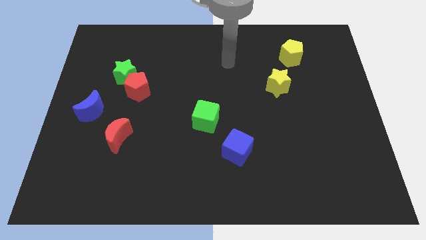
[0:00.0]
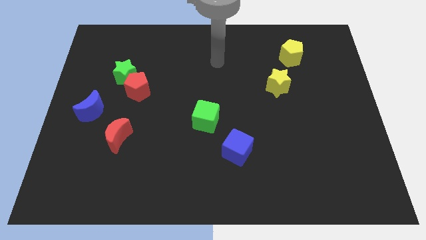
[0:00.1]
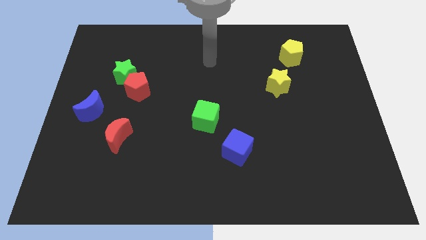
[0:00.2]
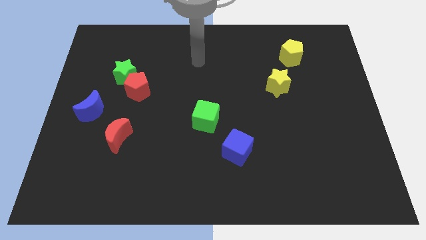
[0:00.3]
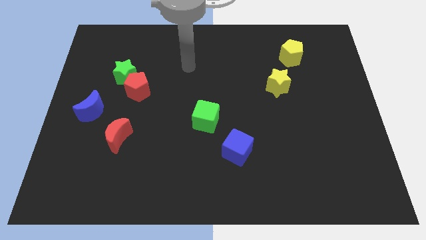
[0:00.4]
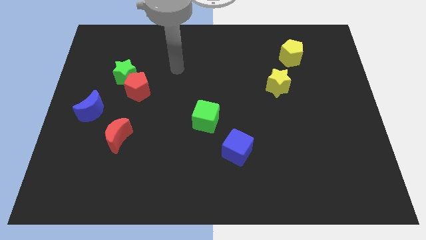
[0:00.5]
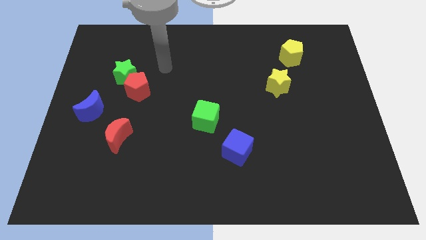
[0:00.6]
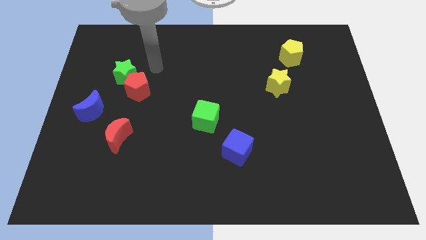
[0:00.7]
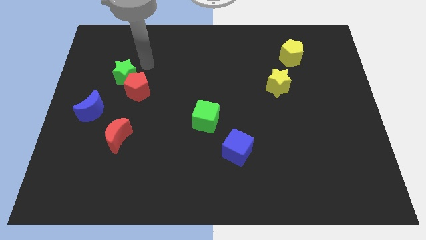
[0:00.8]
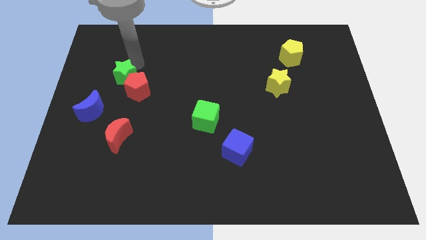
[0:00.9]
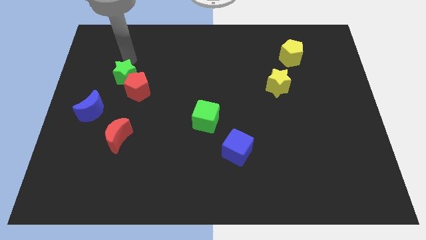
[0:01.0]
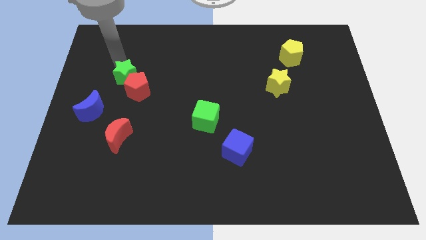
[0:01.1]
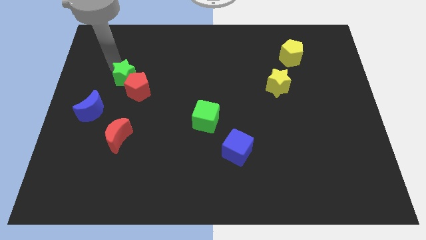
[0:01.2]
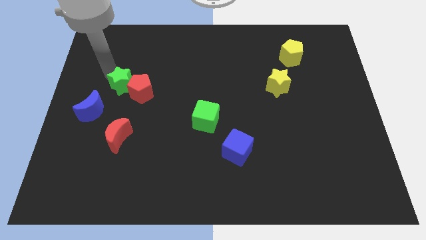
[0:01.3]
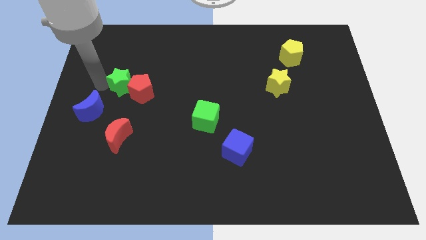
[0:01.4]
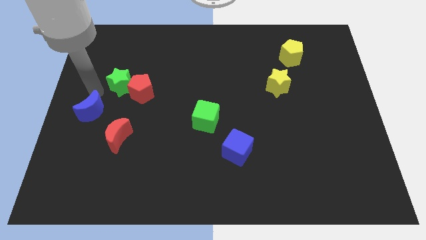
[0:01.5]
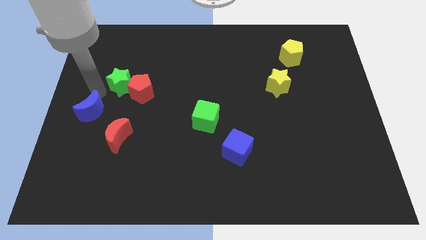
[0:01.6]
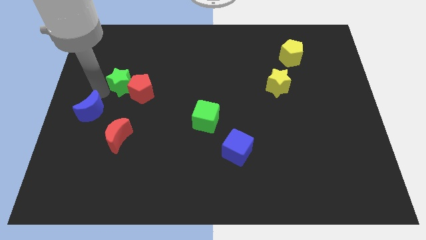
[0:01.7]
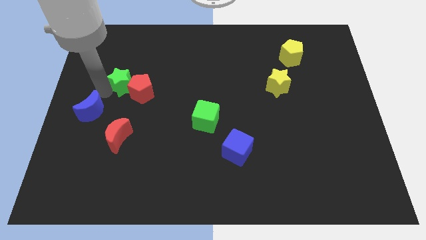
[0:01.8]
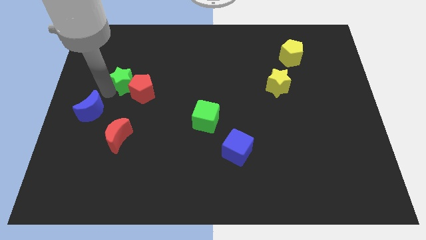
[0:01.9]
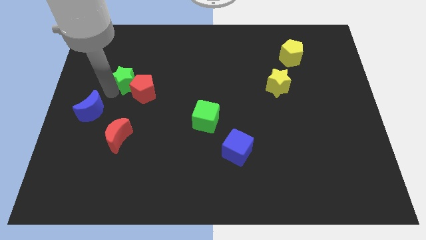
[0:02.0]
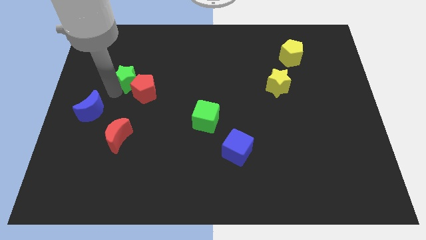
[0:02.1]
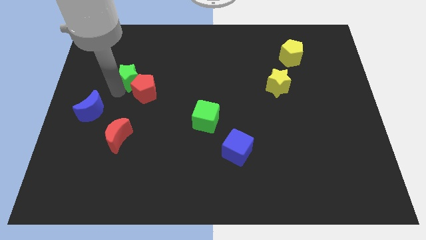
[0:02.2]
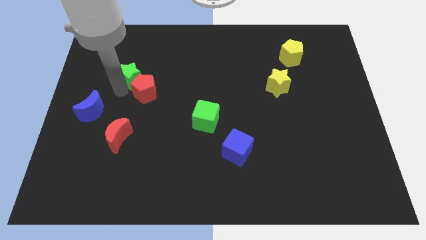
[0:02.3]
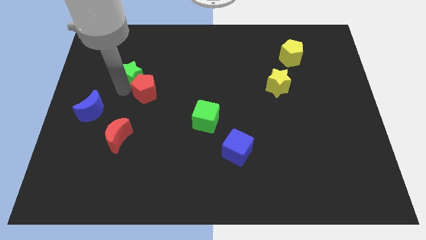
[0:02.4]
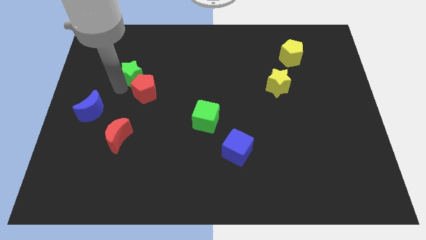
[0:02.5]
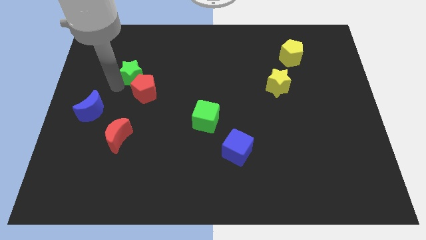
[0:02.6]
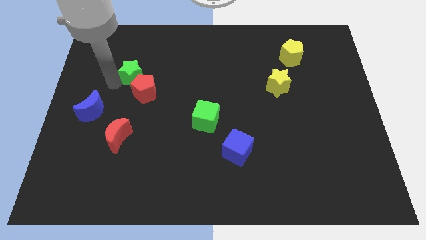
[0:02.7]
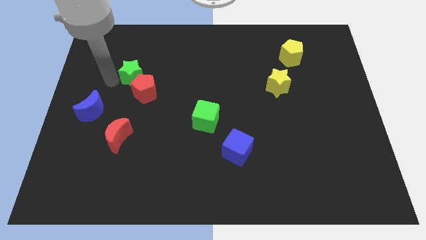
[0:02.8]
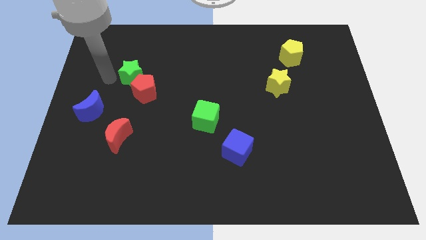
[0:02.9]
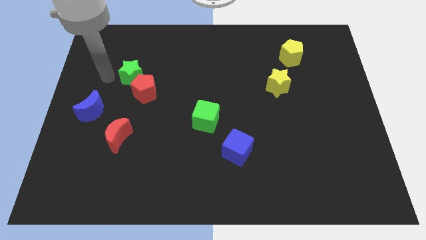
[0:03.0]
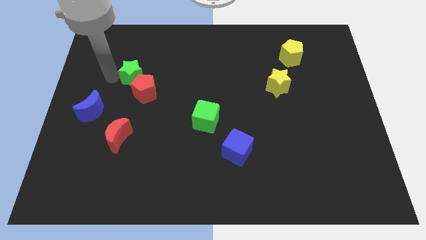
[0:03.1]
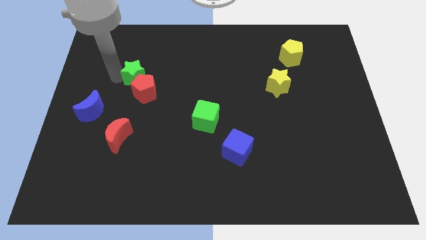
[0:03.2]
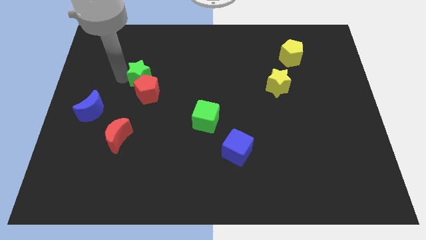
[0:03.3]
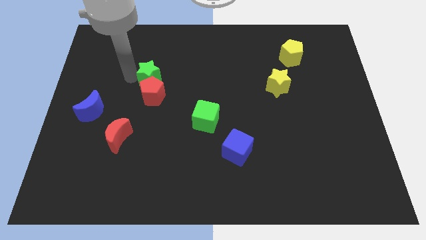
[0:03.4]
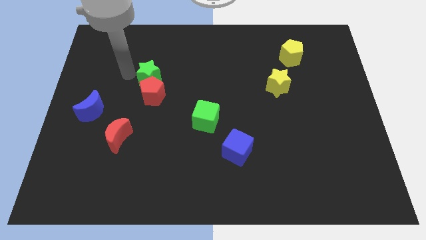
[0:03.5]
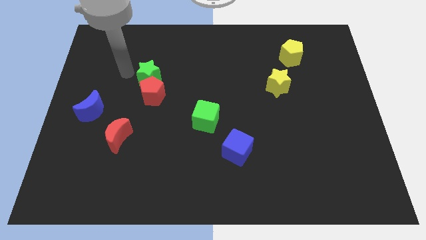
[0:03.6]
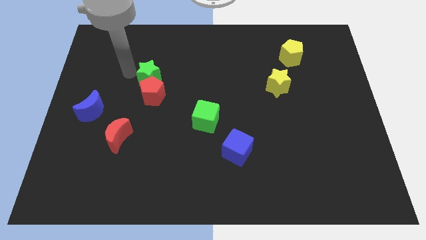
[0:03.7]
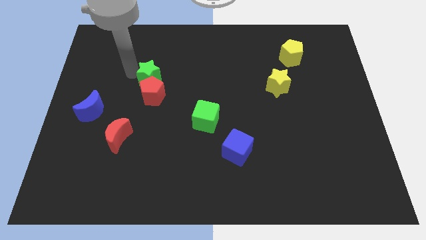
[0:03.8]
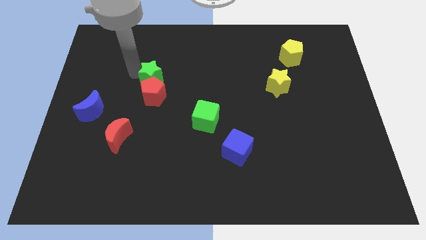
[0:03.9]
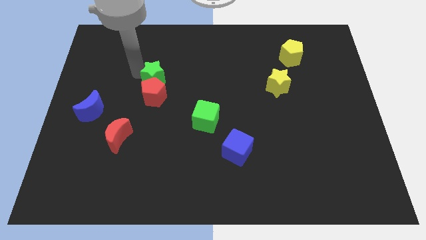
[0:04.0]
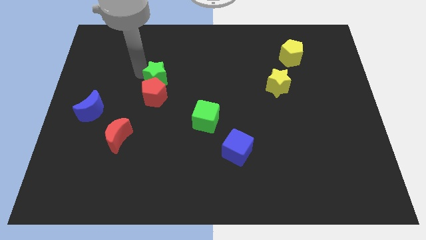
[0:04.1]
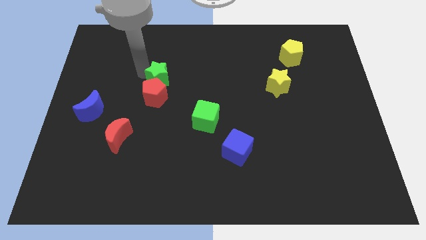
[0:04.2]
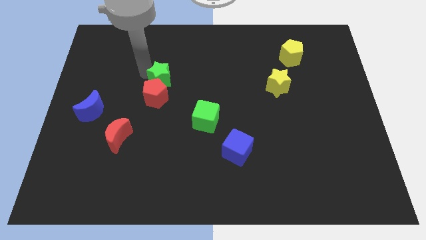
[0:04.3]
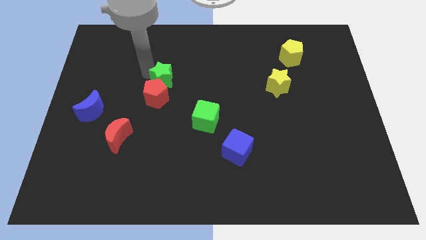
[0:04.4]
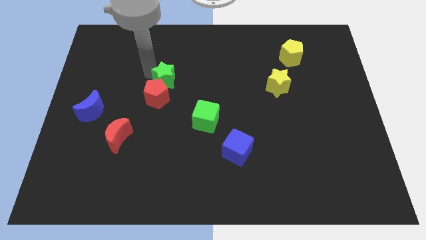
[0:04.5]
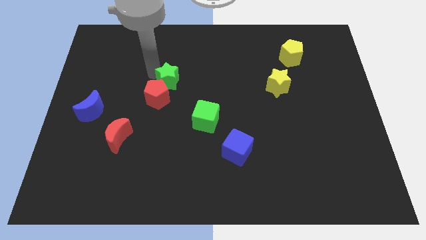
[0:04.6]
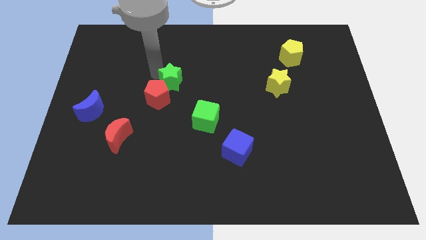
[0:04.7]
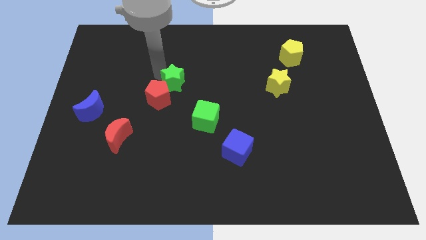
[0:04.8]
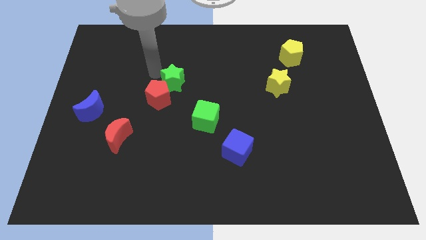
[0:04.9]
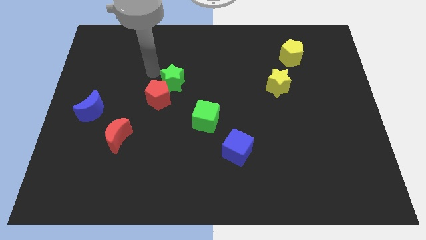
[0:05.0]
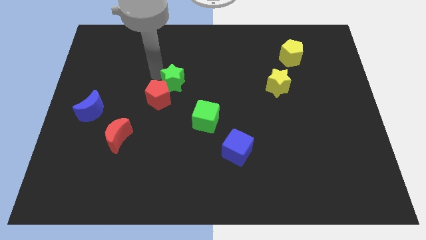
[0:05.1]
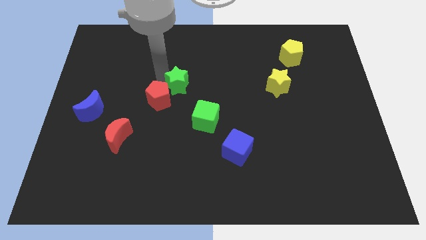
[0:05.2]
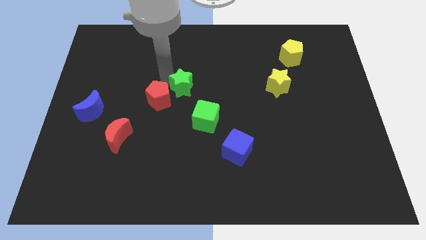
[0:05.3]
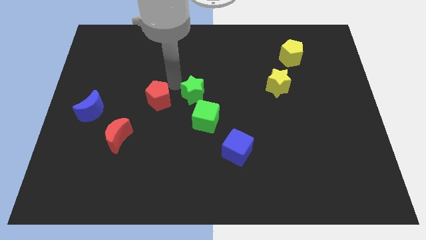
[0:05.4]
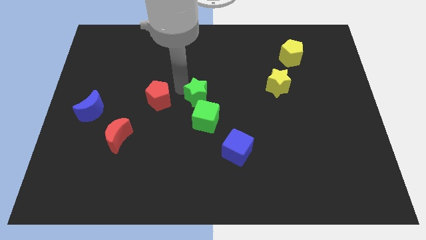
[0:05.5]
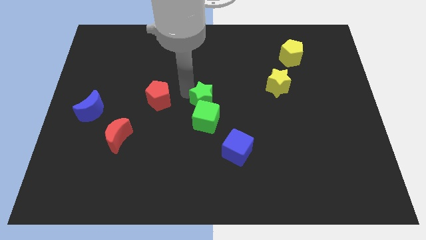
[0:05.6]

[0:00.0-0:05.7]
move the green star diagonally up and to the right of the green cube

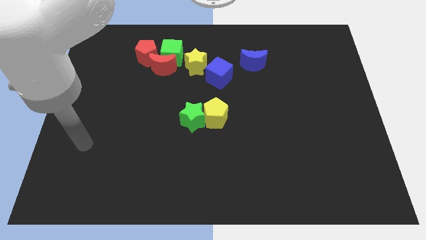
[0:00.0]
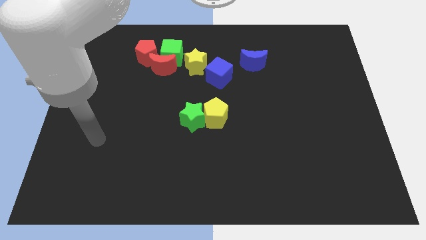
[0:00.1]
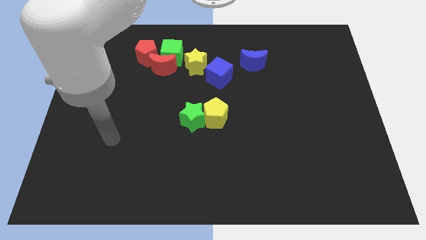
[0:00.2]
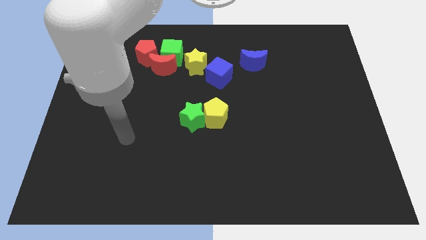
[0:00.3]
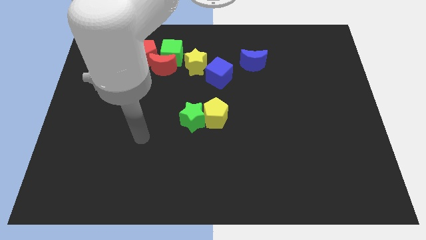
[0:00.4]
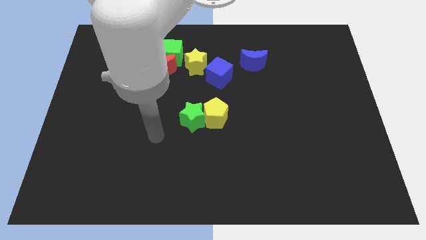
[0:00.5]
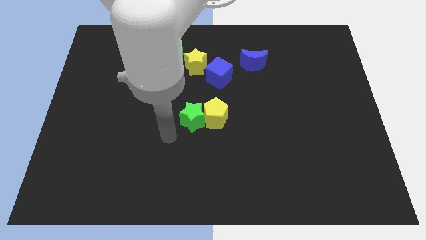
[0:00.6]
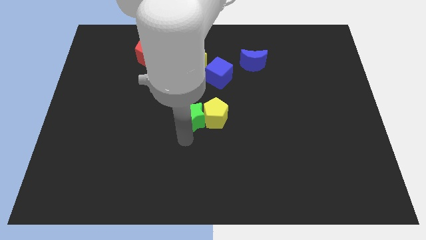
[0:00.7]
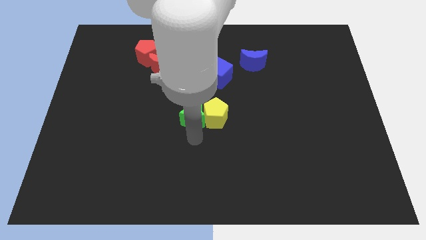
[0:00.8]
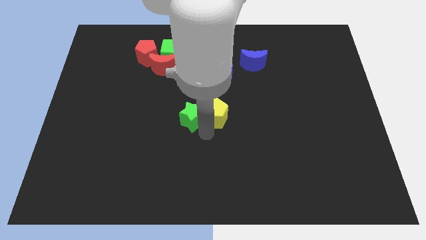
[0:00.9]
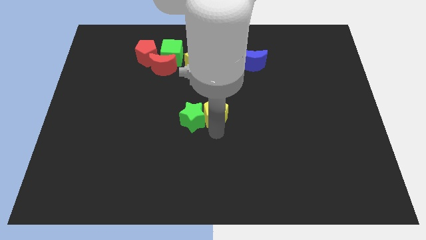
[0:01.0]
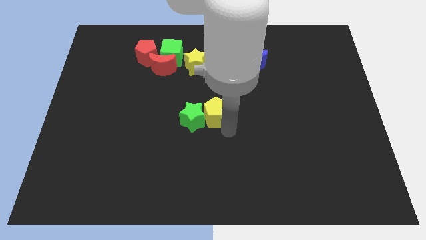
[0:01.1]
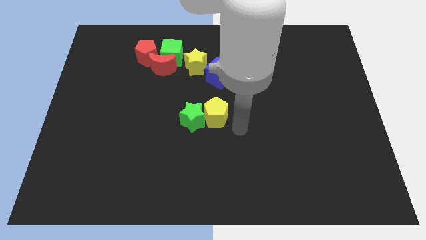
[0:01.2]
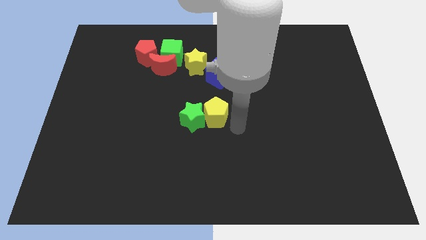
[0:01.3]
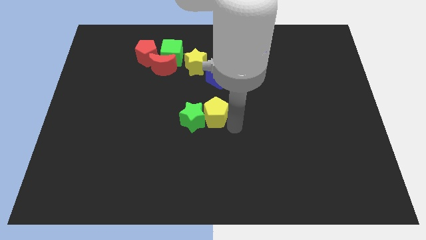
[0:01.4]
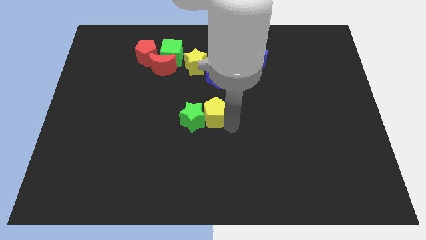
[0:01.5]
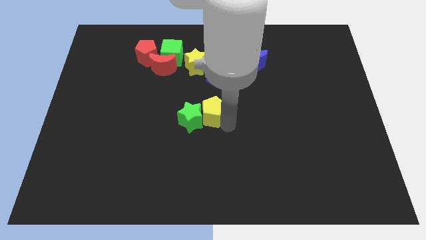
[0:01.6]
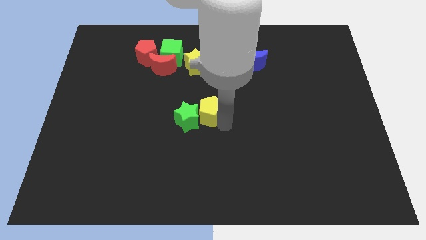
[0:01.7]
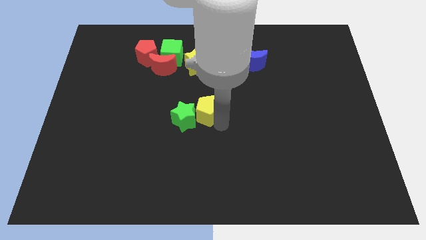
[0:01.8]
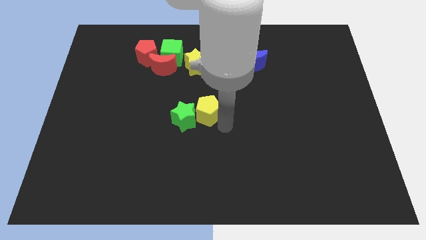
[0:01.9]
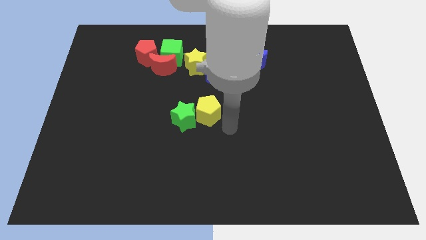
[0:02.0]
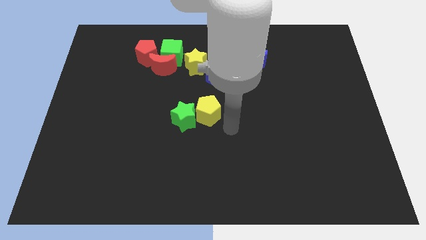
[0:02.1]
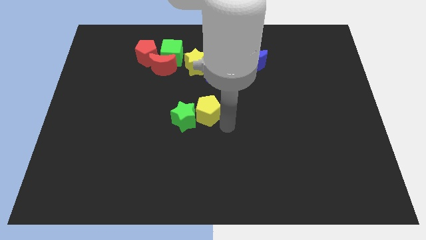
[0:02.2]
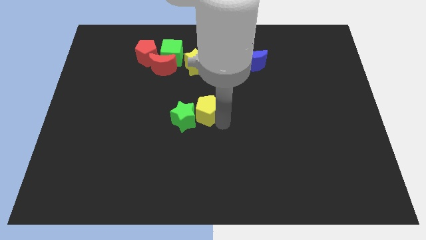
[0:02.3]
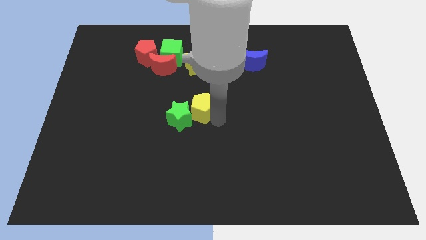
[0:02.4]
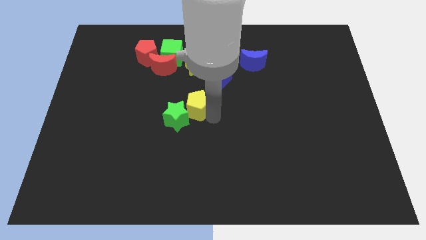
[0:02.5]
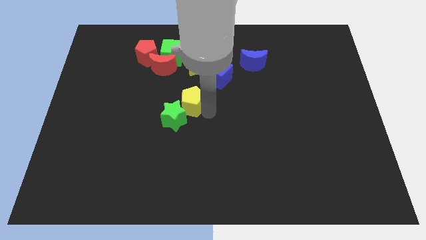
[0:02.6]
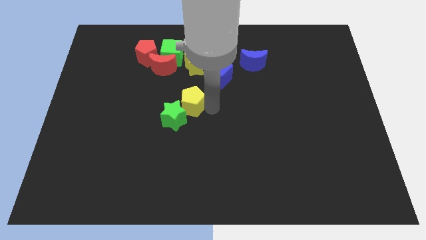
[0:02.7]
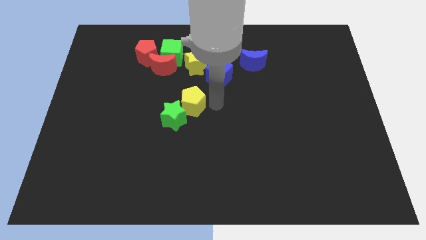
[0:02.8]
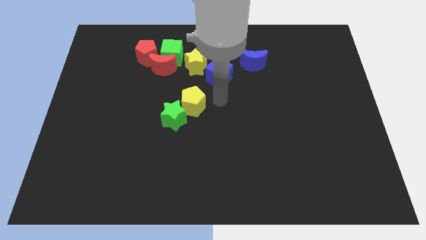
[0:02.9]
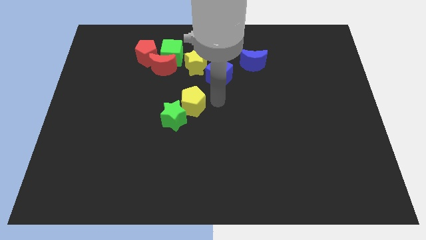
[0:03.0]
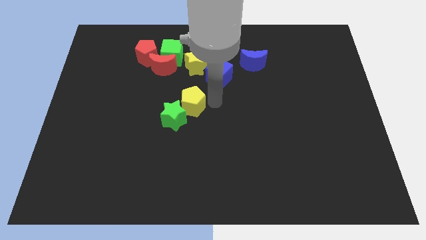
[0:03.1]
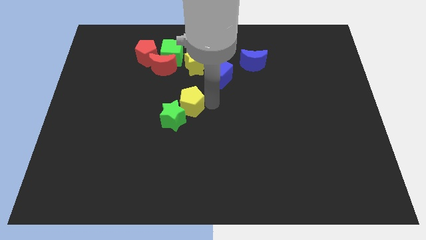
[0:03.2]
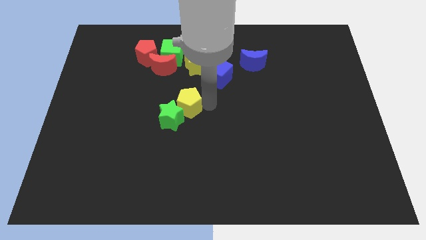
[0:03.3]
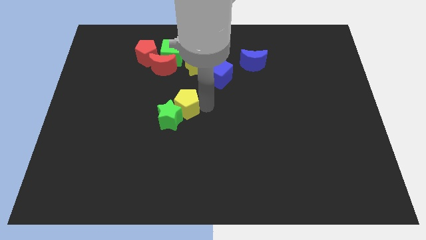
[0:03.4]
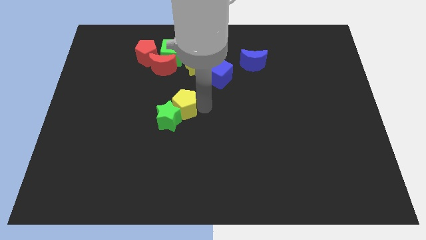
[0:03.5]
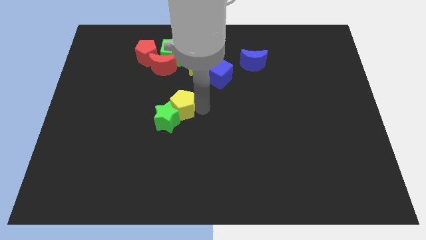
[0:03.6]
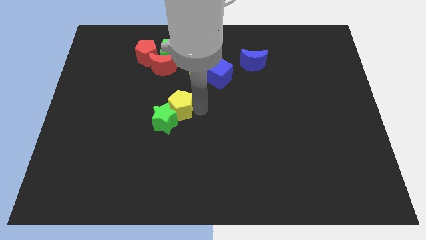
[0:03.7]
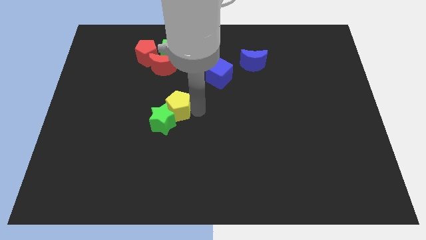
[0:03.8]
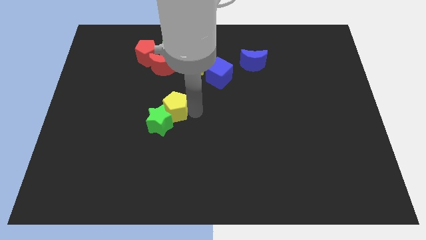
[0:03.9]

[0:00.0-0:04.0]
push the yellow pentagon to the bottom of the red moon
